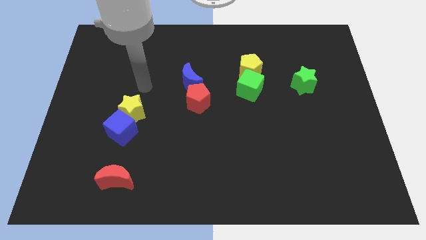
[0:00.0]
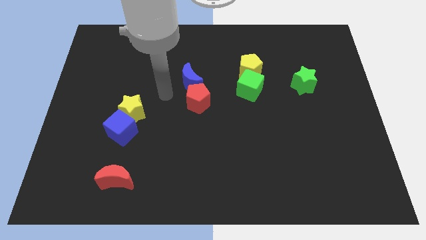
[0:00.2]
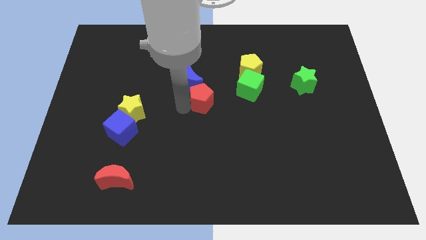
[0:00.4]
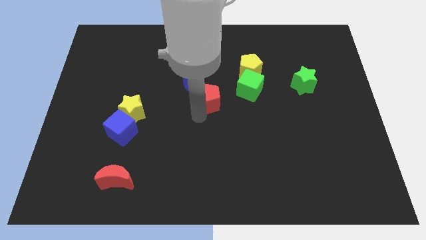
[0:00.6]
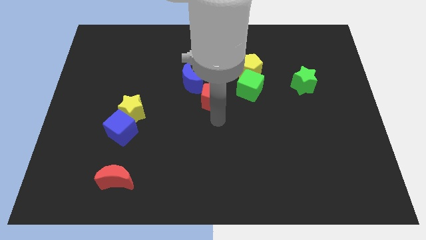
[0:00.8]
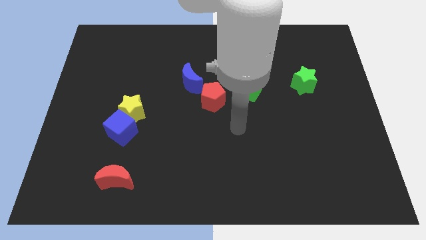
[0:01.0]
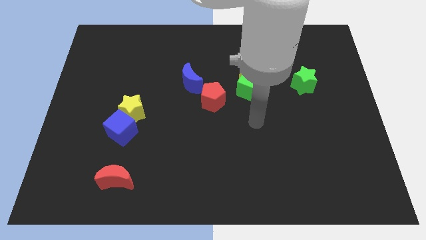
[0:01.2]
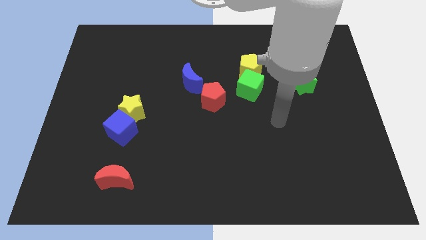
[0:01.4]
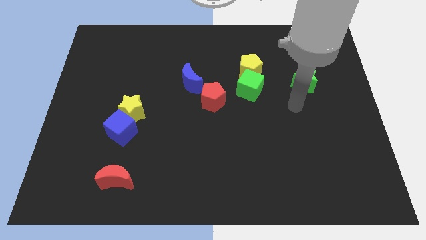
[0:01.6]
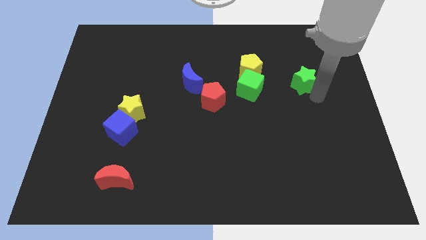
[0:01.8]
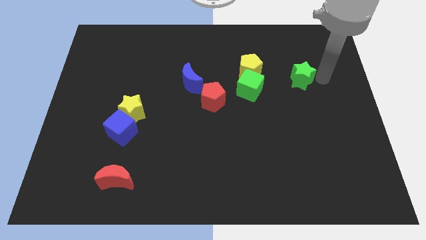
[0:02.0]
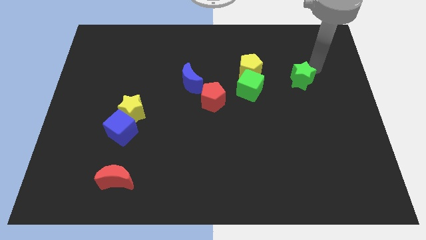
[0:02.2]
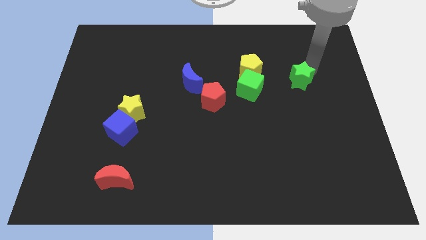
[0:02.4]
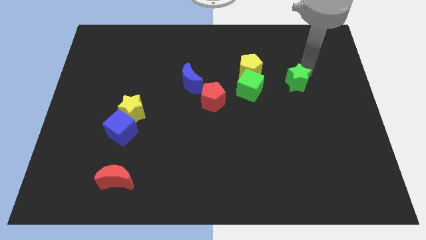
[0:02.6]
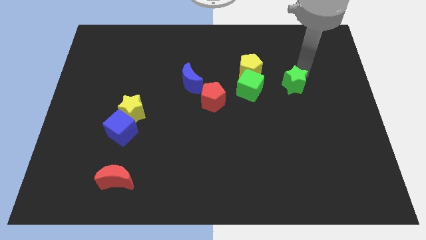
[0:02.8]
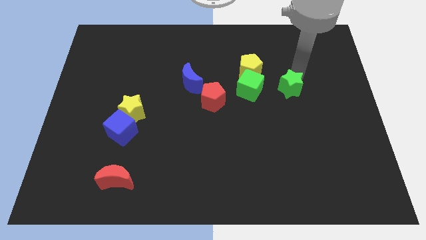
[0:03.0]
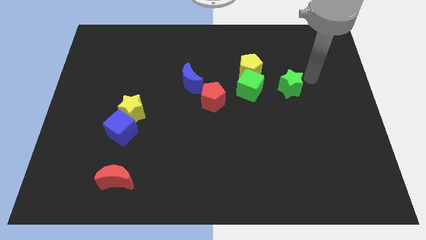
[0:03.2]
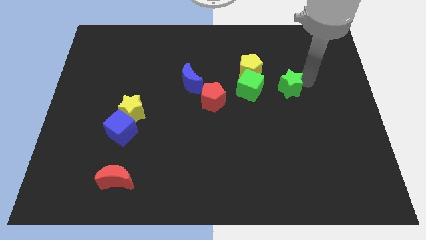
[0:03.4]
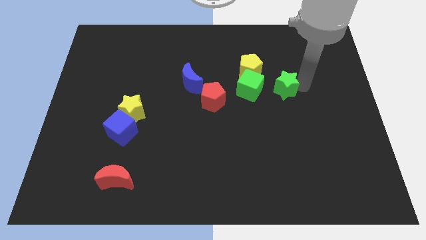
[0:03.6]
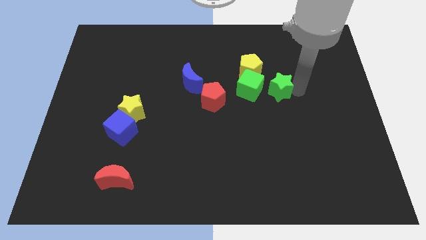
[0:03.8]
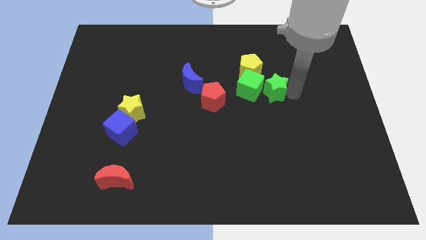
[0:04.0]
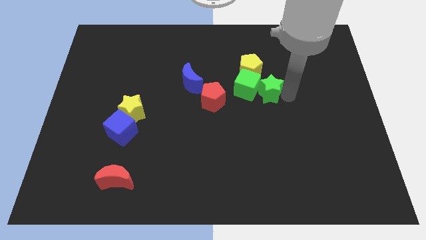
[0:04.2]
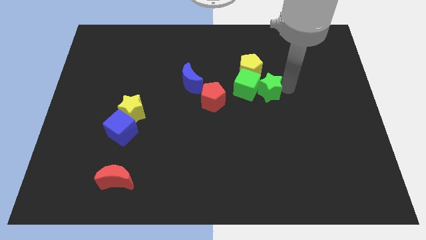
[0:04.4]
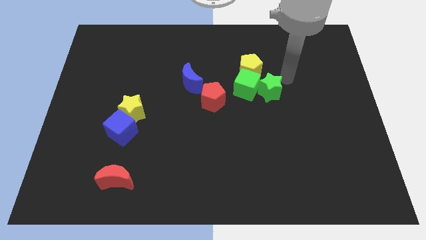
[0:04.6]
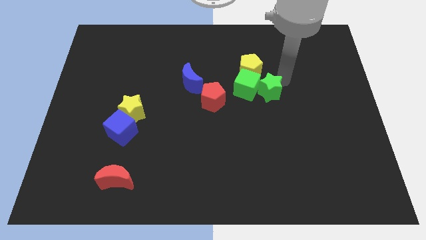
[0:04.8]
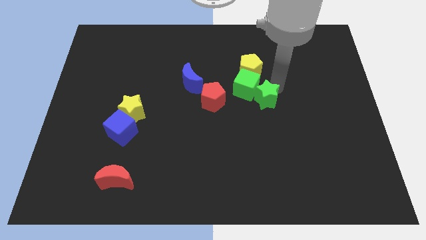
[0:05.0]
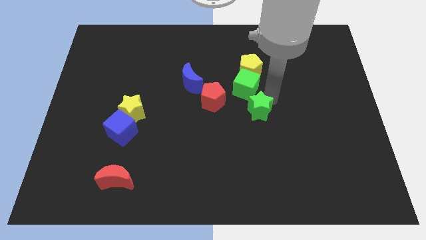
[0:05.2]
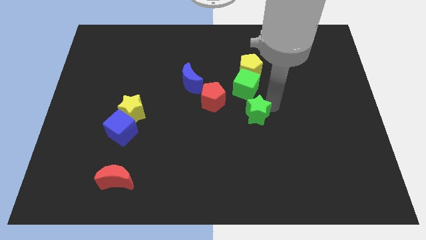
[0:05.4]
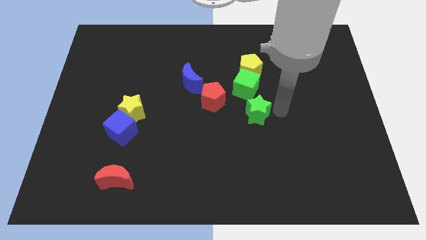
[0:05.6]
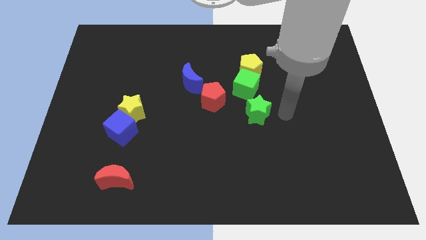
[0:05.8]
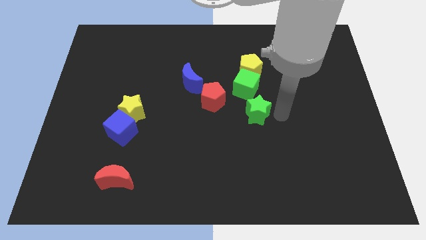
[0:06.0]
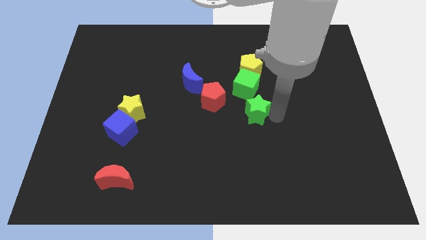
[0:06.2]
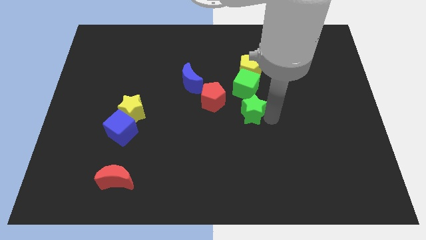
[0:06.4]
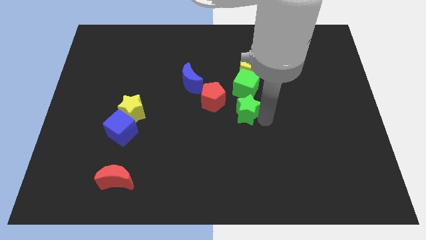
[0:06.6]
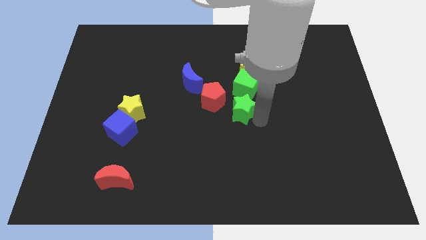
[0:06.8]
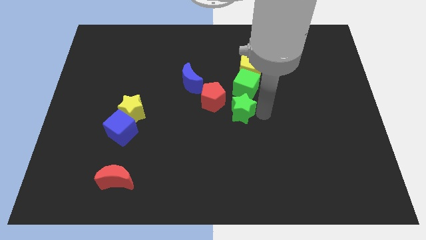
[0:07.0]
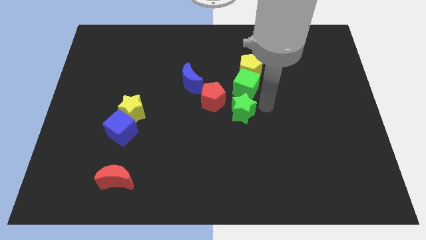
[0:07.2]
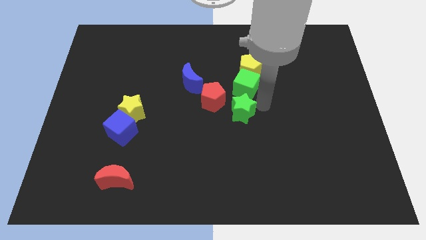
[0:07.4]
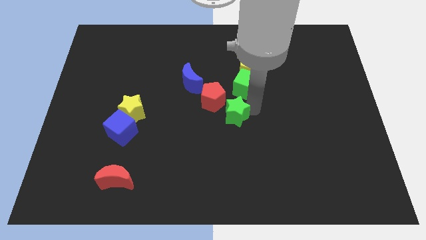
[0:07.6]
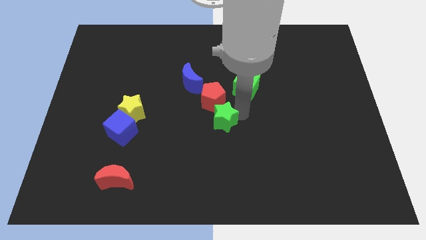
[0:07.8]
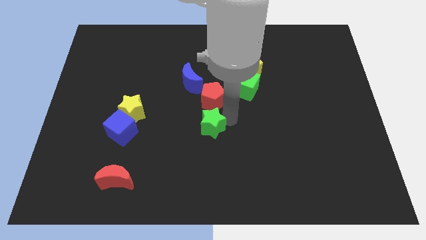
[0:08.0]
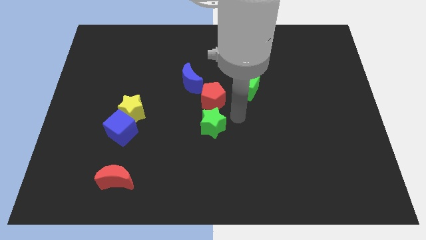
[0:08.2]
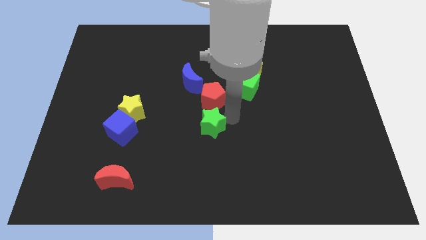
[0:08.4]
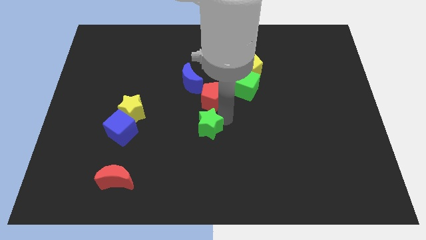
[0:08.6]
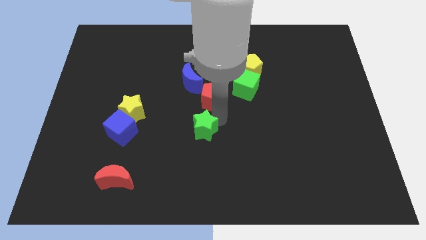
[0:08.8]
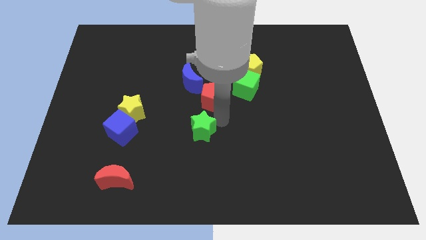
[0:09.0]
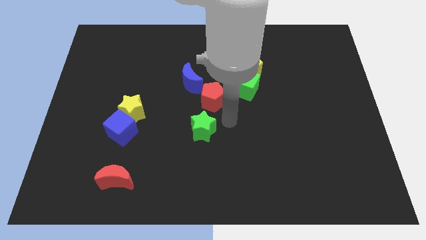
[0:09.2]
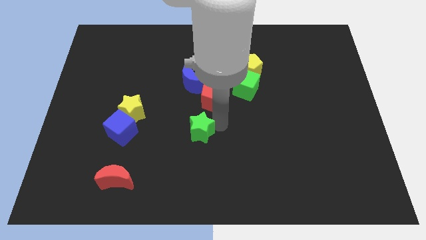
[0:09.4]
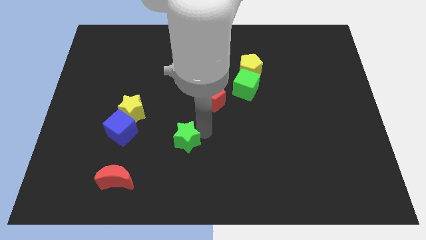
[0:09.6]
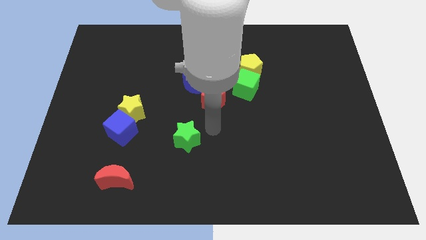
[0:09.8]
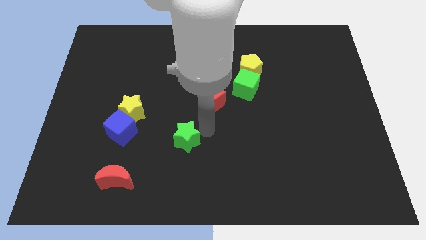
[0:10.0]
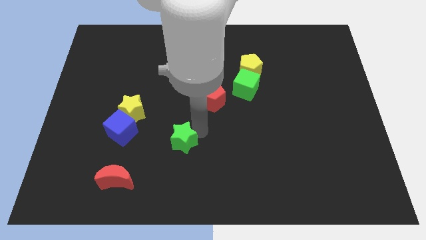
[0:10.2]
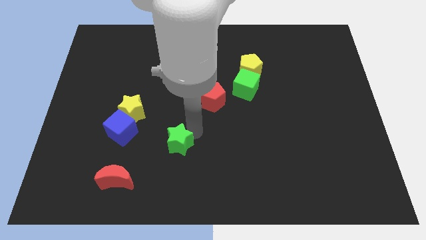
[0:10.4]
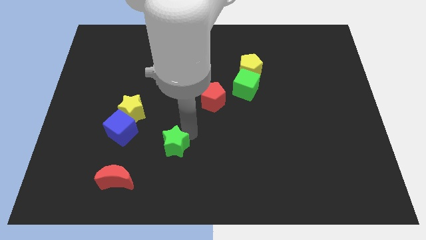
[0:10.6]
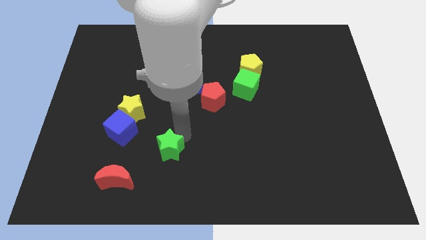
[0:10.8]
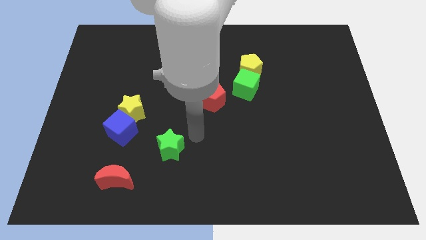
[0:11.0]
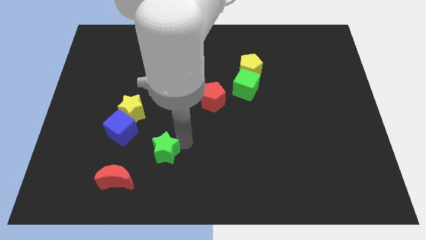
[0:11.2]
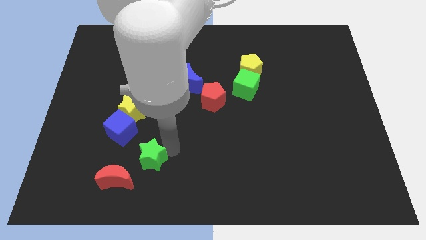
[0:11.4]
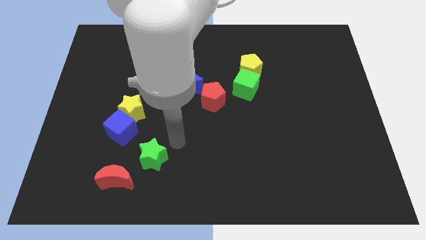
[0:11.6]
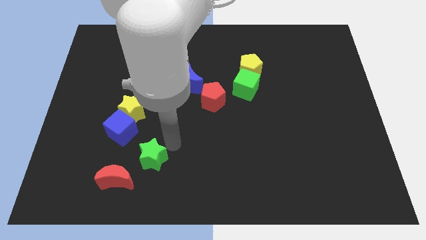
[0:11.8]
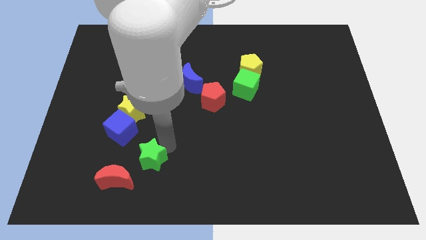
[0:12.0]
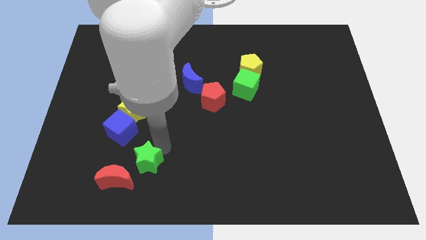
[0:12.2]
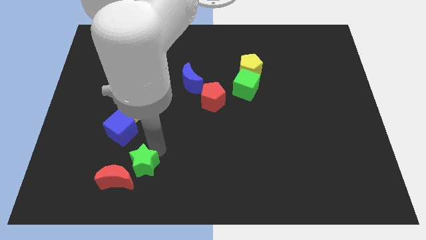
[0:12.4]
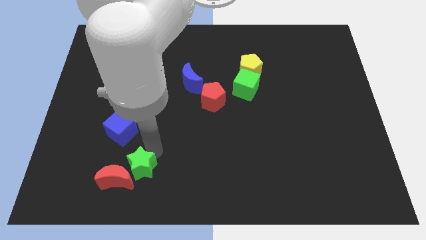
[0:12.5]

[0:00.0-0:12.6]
push the green star next to the red moon

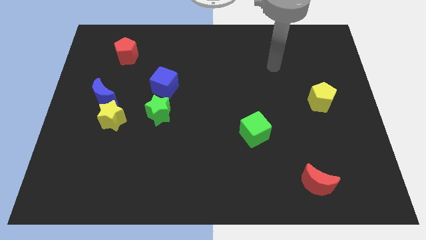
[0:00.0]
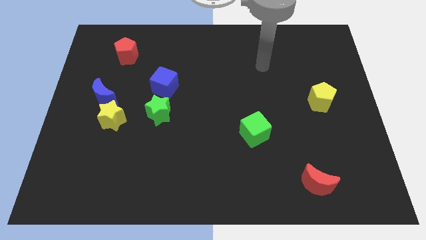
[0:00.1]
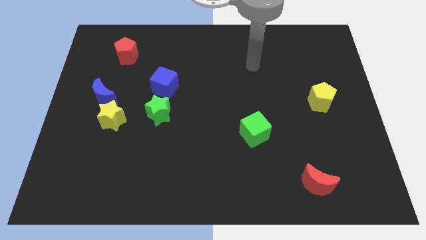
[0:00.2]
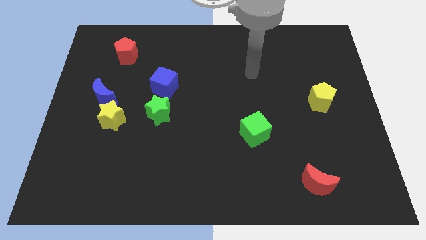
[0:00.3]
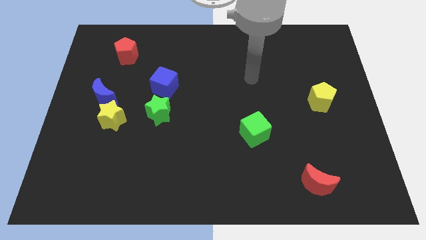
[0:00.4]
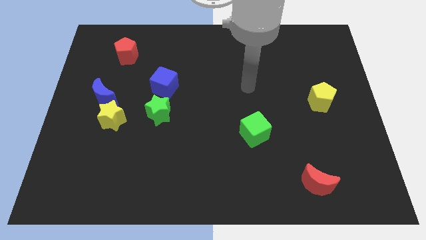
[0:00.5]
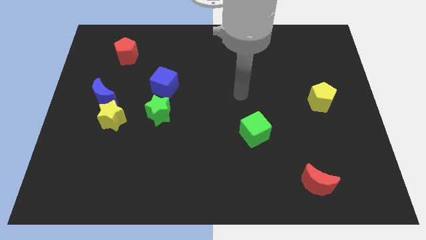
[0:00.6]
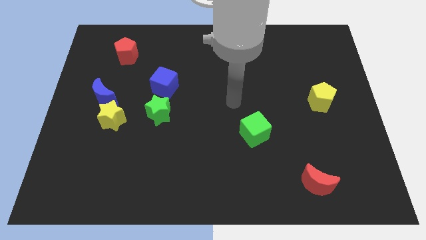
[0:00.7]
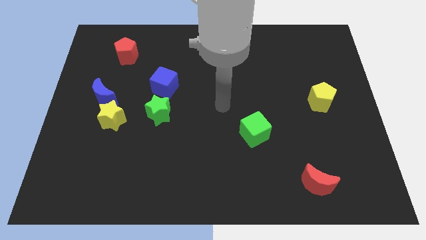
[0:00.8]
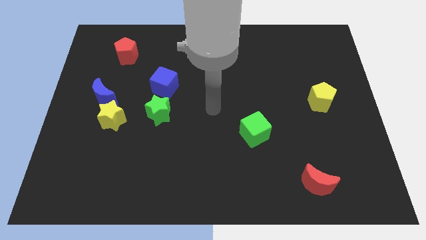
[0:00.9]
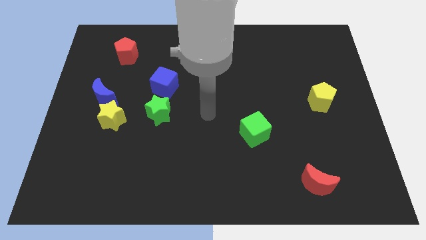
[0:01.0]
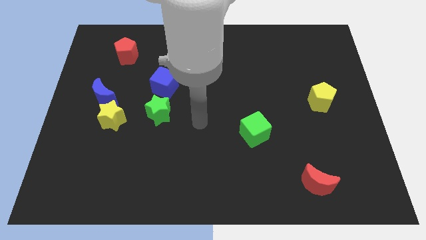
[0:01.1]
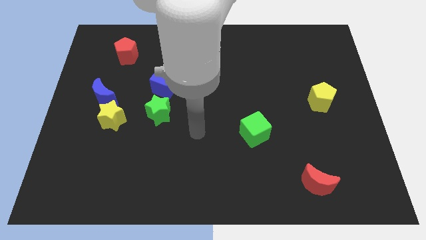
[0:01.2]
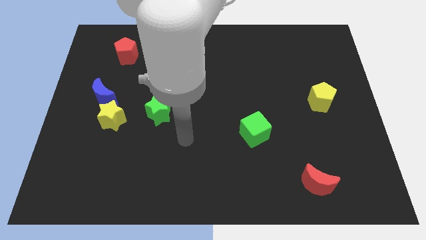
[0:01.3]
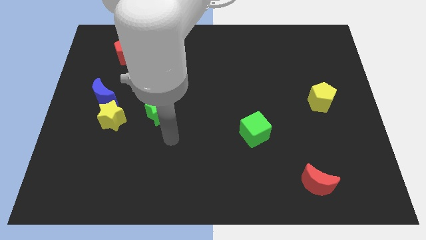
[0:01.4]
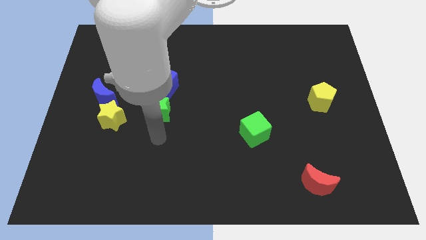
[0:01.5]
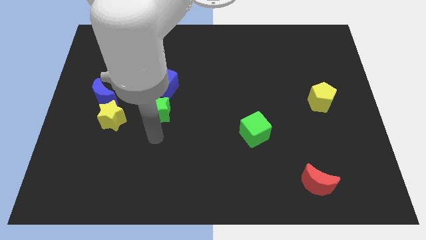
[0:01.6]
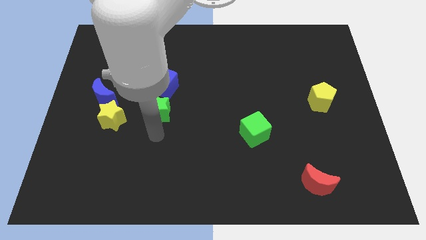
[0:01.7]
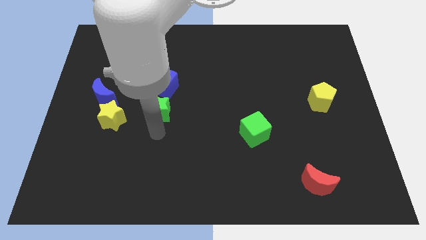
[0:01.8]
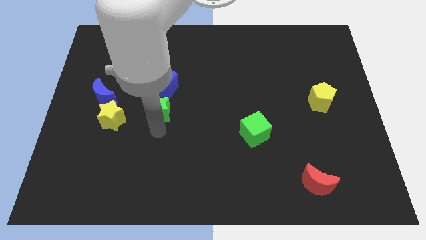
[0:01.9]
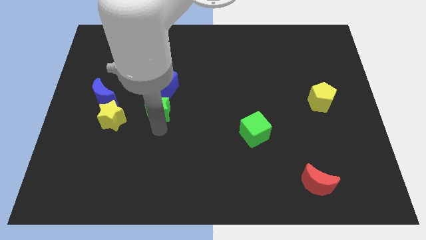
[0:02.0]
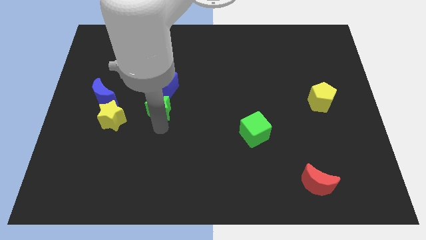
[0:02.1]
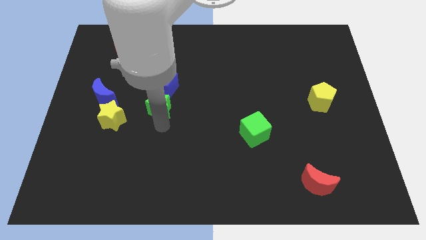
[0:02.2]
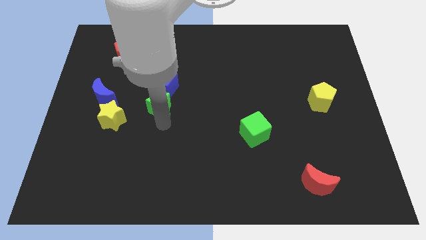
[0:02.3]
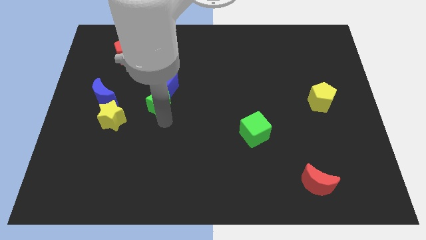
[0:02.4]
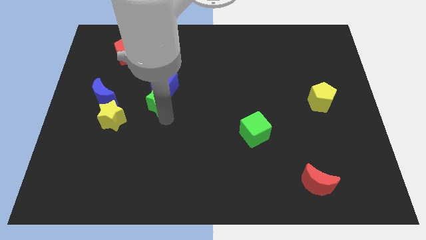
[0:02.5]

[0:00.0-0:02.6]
put the green star towards the blue cube
